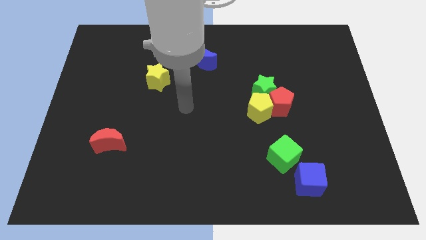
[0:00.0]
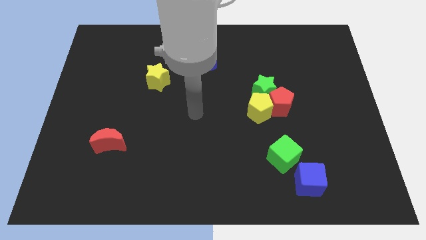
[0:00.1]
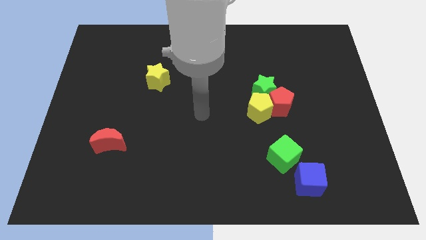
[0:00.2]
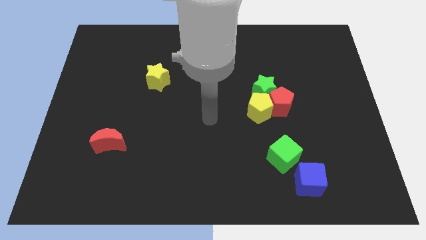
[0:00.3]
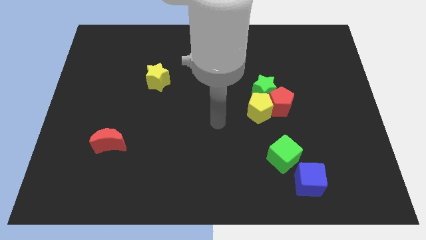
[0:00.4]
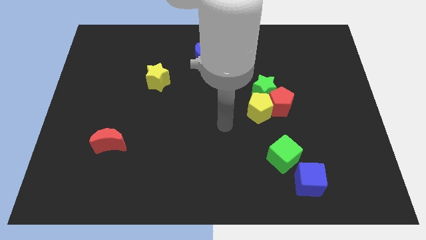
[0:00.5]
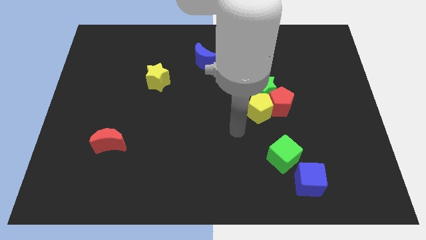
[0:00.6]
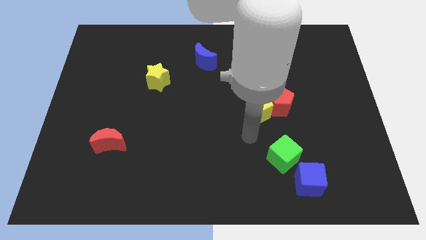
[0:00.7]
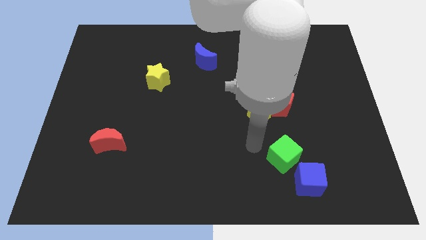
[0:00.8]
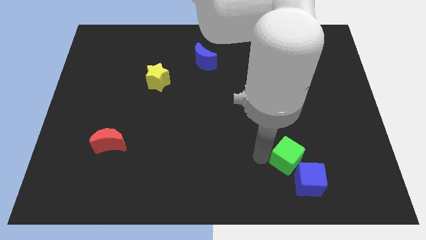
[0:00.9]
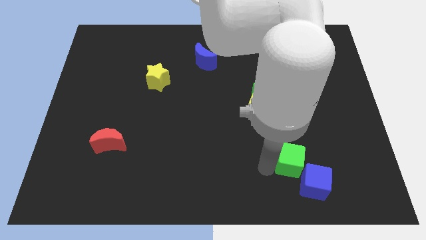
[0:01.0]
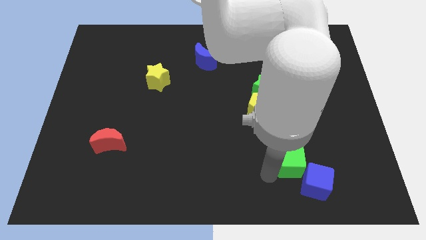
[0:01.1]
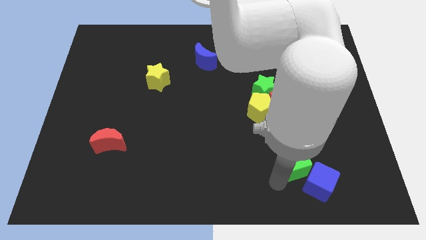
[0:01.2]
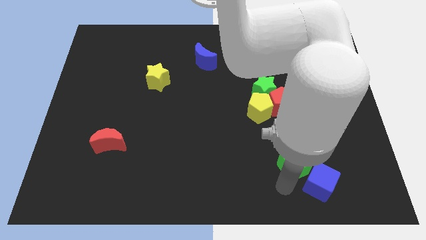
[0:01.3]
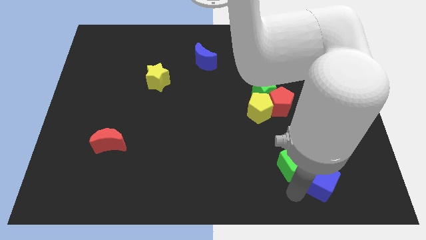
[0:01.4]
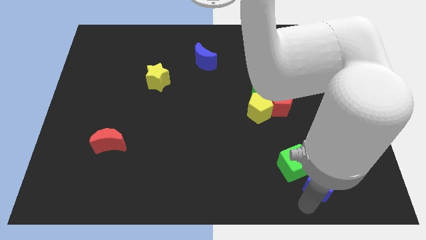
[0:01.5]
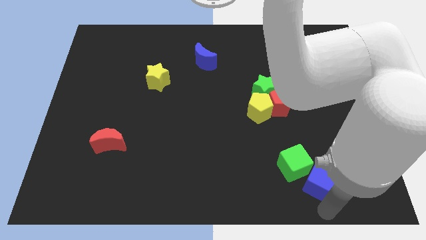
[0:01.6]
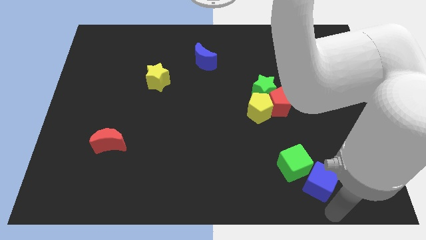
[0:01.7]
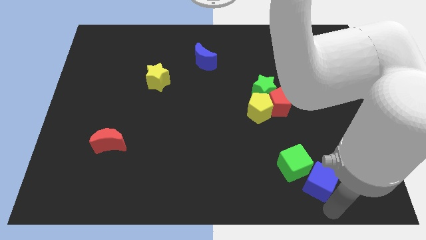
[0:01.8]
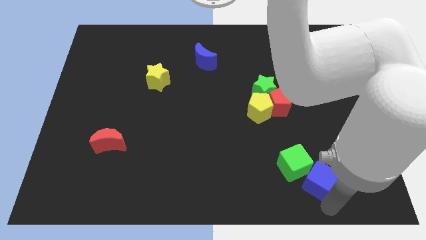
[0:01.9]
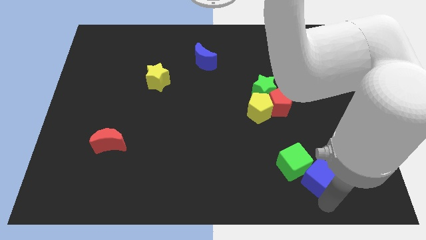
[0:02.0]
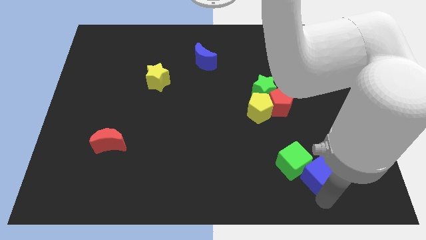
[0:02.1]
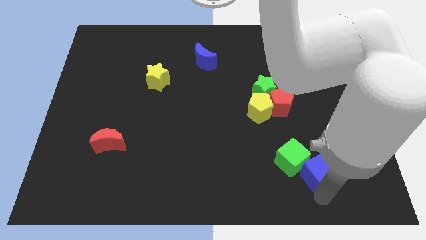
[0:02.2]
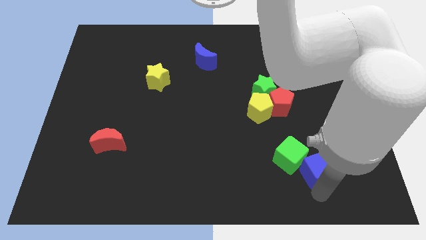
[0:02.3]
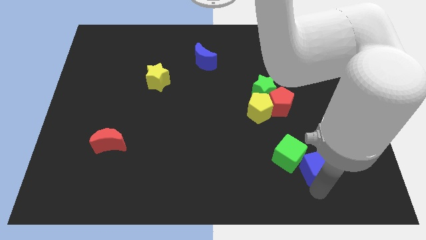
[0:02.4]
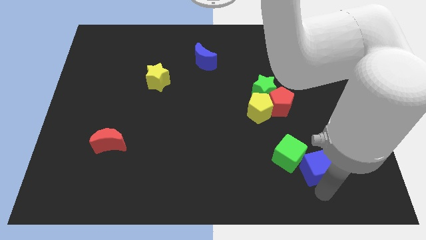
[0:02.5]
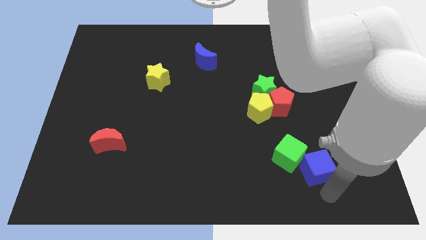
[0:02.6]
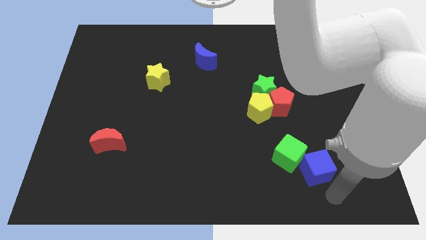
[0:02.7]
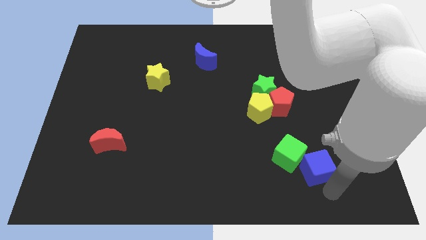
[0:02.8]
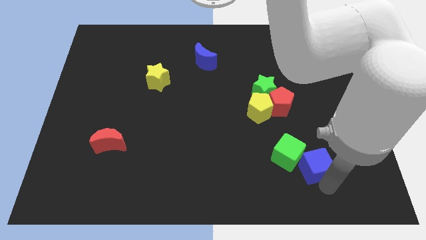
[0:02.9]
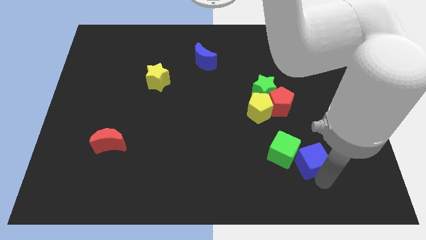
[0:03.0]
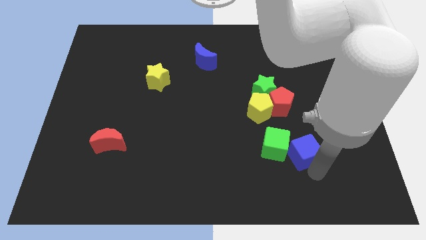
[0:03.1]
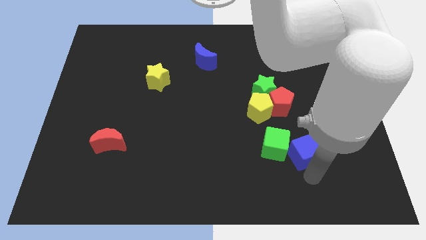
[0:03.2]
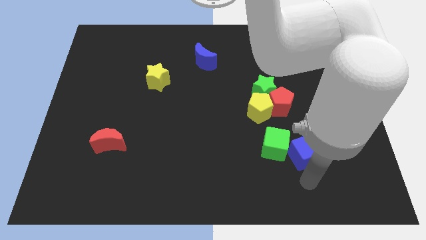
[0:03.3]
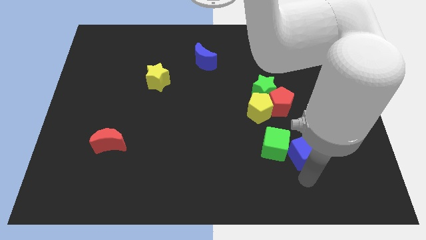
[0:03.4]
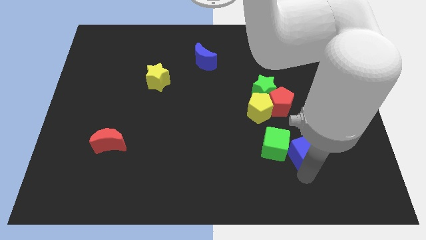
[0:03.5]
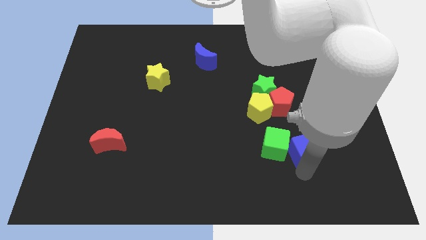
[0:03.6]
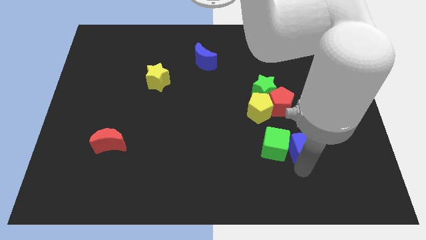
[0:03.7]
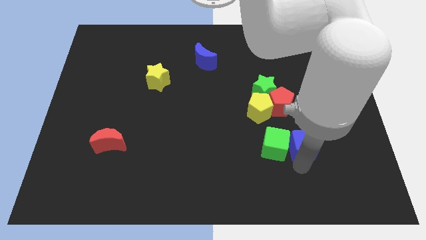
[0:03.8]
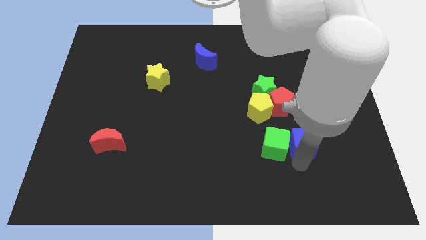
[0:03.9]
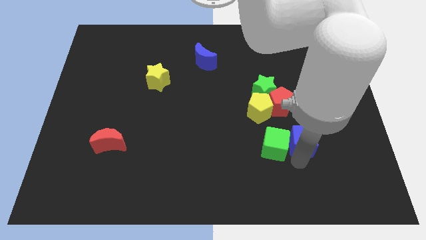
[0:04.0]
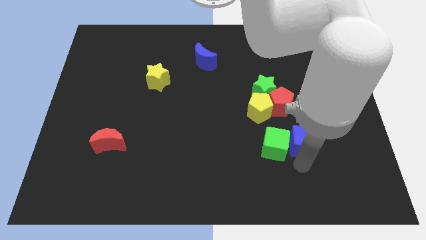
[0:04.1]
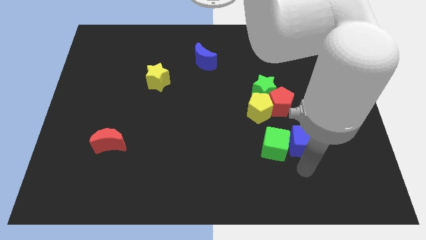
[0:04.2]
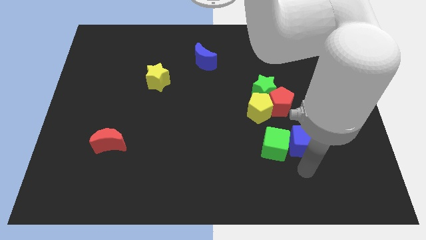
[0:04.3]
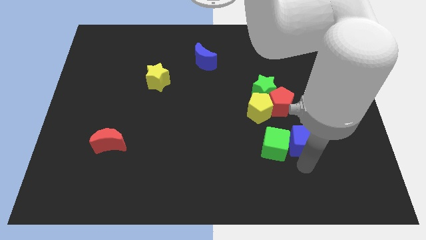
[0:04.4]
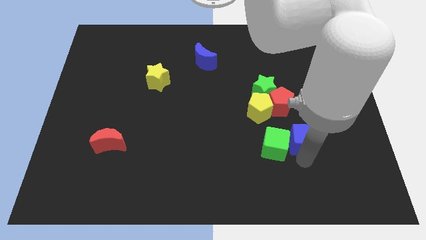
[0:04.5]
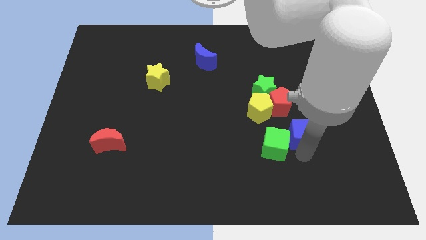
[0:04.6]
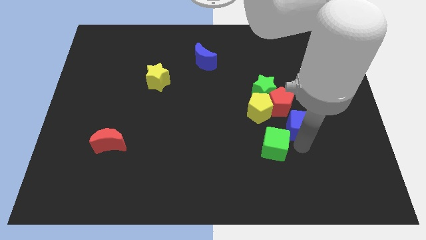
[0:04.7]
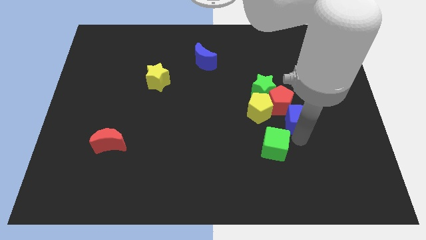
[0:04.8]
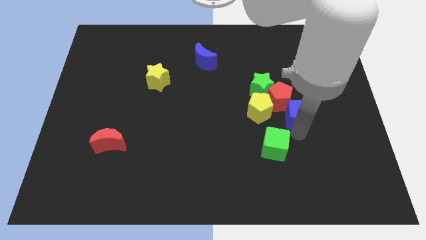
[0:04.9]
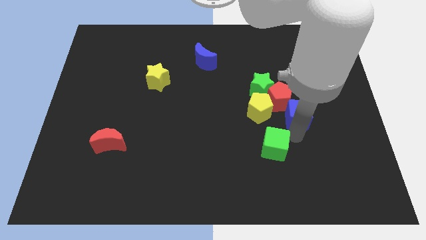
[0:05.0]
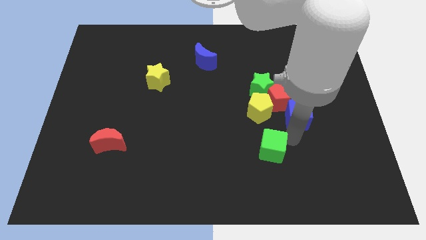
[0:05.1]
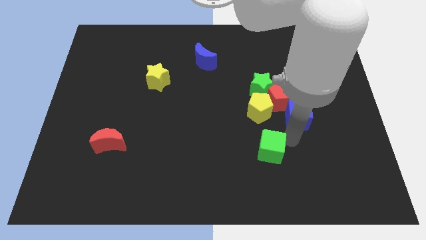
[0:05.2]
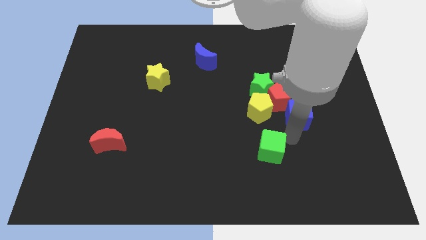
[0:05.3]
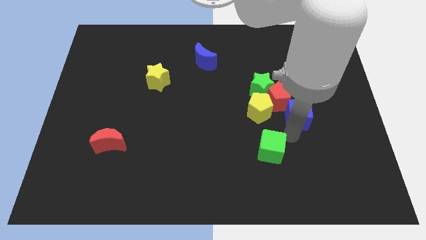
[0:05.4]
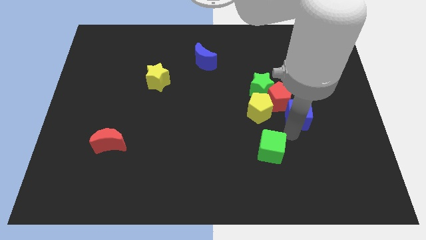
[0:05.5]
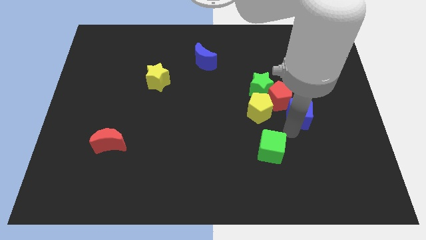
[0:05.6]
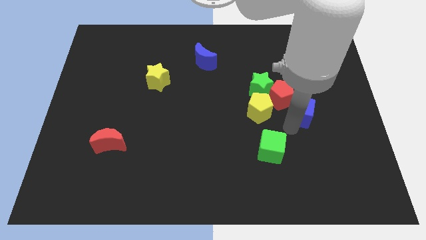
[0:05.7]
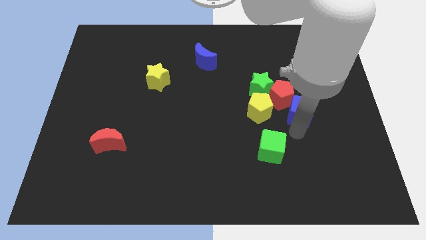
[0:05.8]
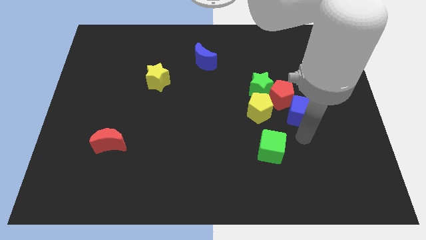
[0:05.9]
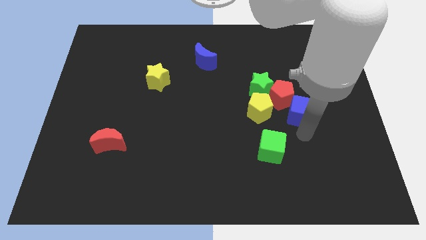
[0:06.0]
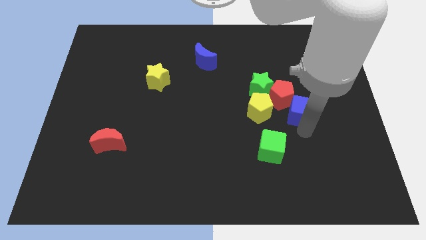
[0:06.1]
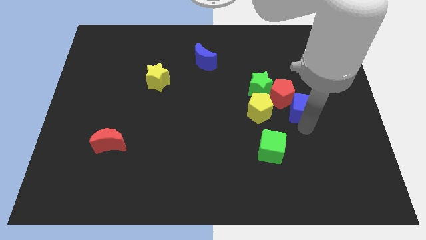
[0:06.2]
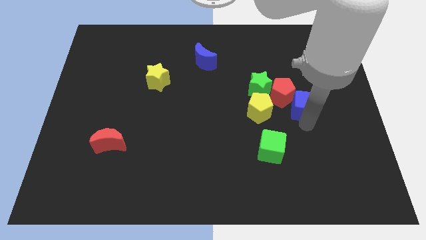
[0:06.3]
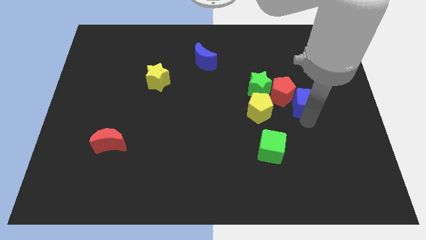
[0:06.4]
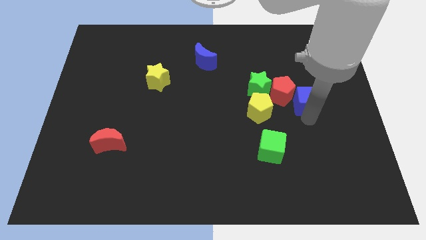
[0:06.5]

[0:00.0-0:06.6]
push the blue cube up

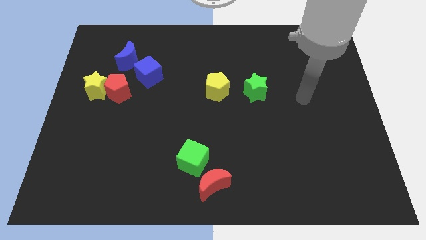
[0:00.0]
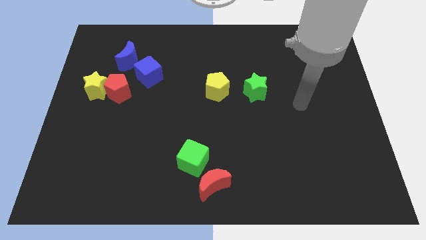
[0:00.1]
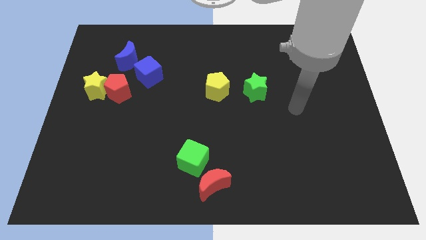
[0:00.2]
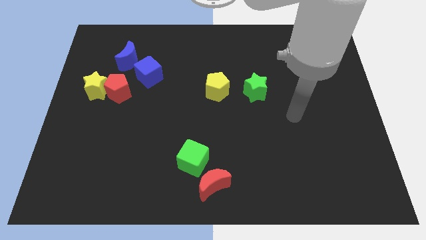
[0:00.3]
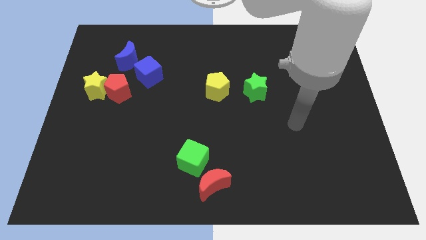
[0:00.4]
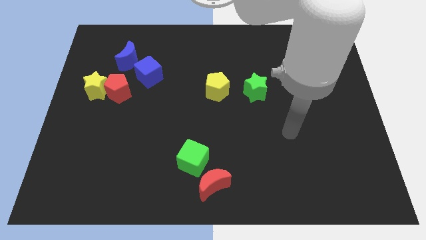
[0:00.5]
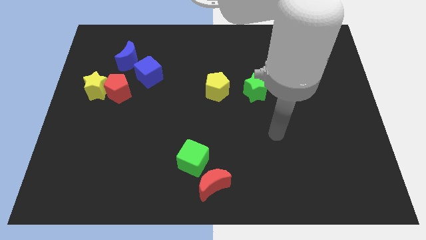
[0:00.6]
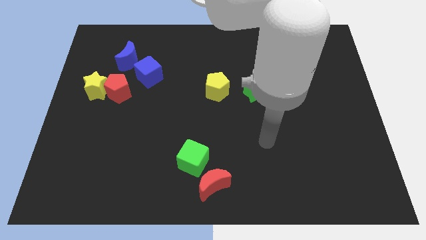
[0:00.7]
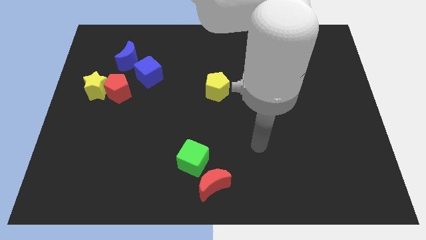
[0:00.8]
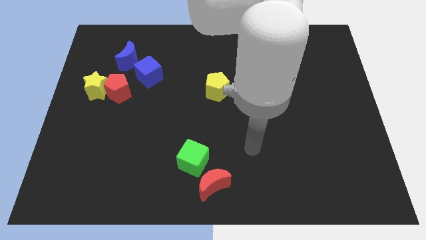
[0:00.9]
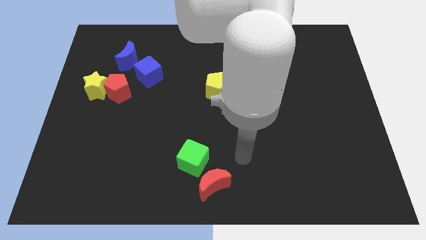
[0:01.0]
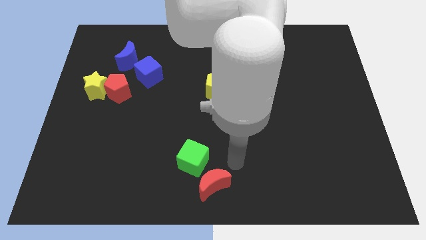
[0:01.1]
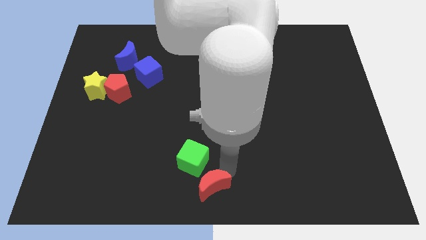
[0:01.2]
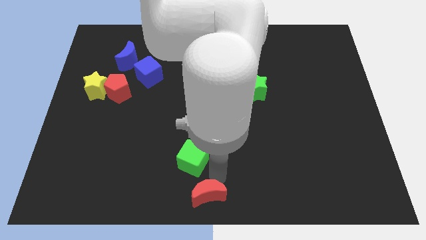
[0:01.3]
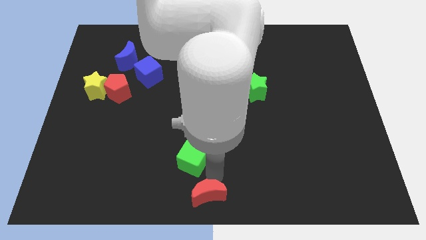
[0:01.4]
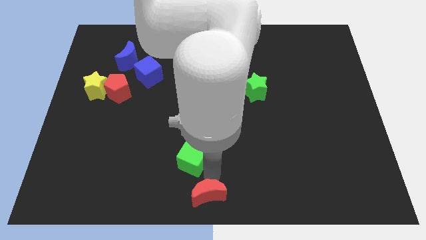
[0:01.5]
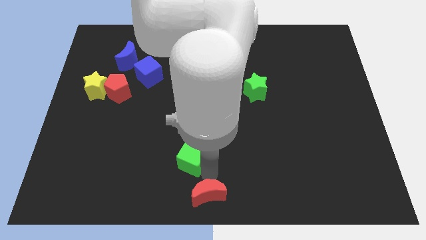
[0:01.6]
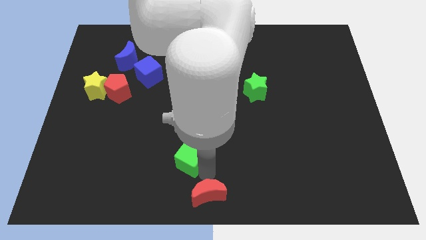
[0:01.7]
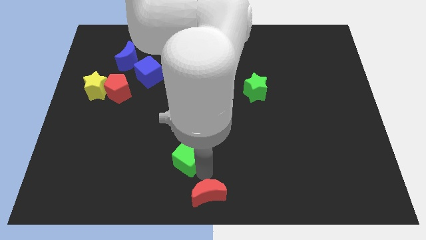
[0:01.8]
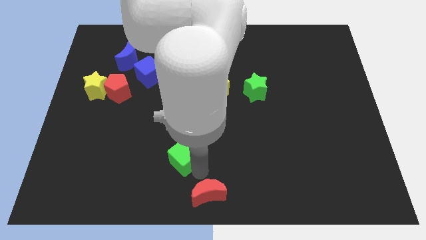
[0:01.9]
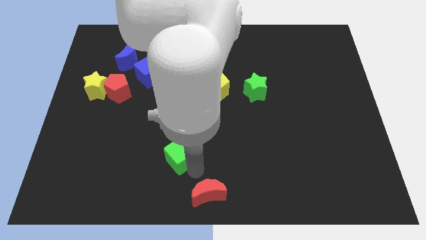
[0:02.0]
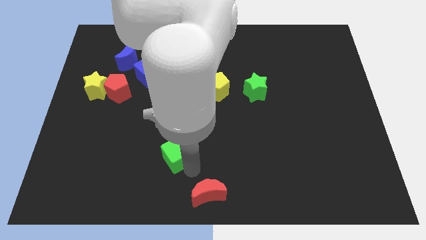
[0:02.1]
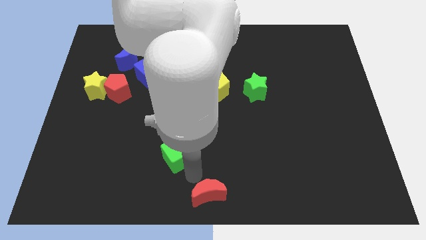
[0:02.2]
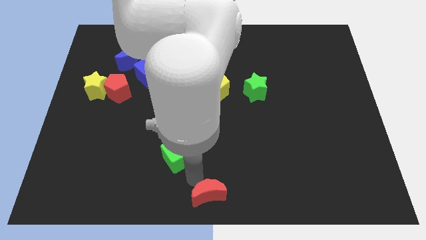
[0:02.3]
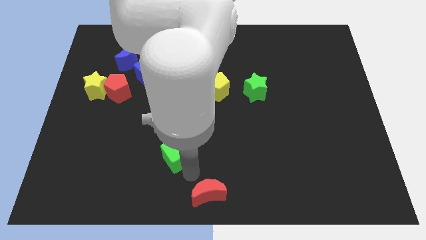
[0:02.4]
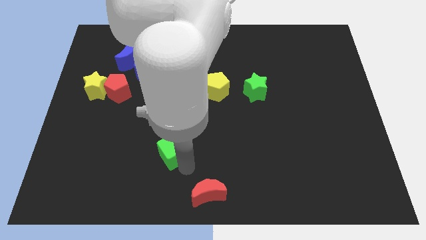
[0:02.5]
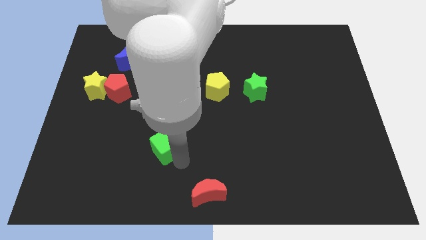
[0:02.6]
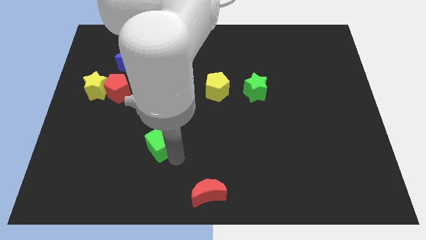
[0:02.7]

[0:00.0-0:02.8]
slightly push the green cube up and to the left
